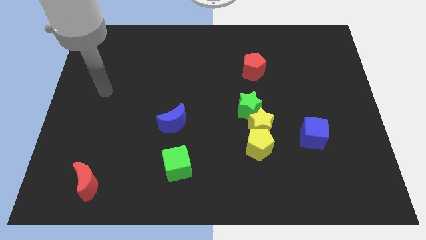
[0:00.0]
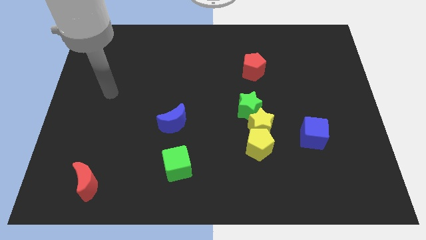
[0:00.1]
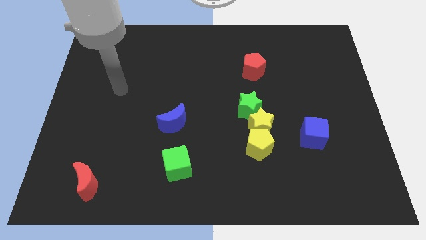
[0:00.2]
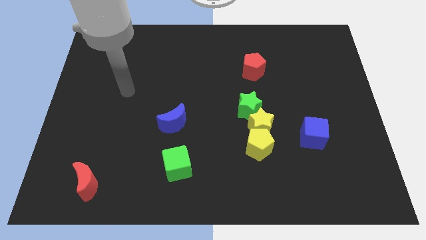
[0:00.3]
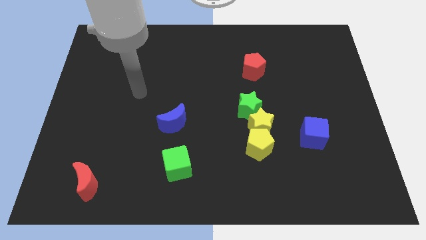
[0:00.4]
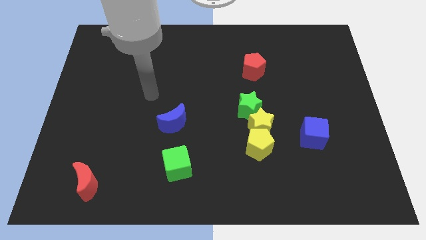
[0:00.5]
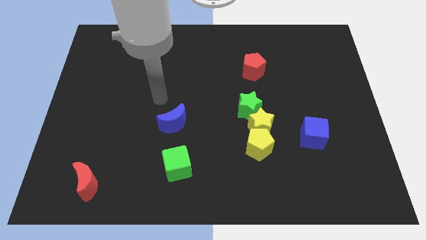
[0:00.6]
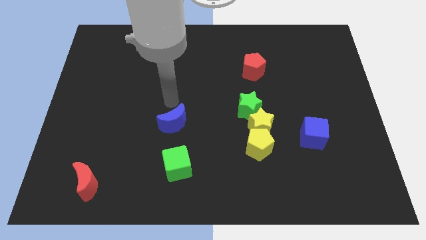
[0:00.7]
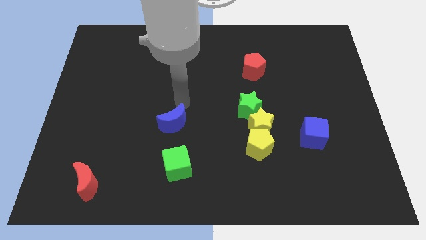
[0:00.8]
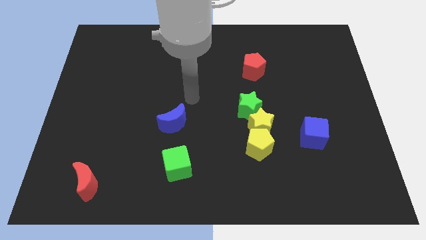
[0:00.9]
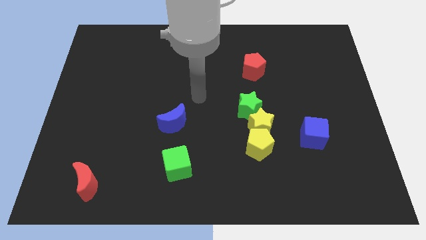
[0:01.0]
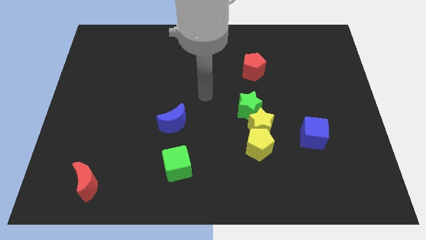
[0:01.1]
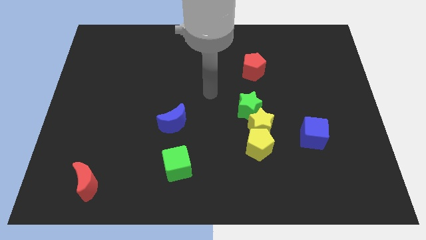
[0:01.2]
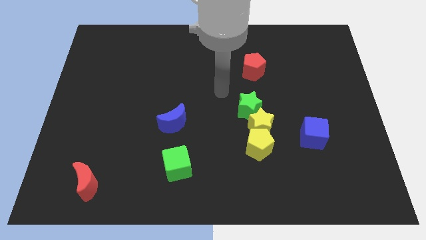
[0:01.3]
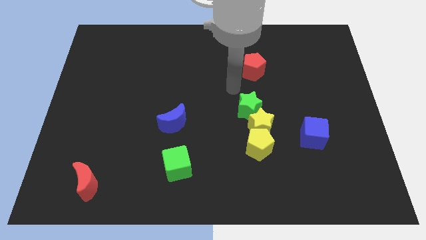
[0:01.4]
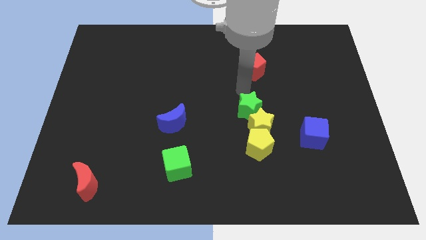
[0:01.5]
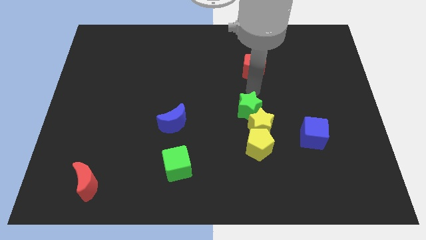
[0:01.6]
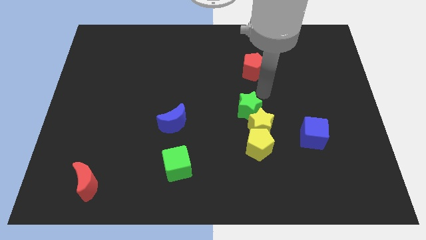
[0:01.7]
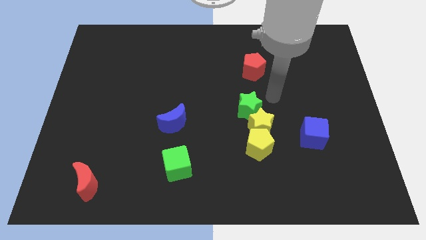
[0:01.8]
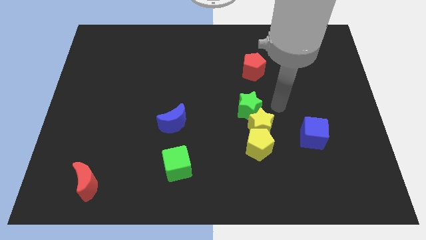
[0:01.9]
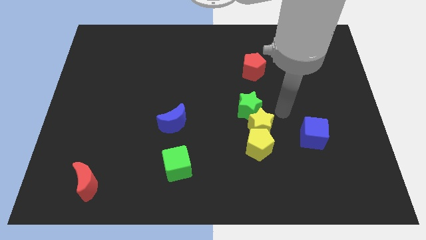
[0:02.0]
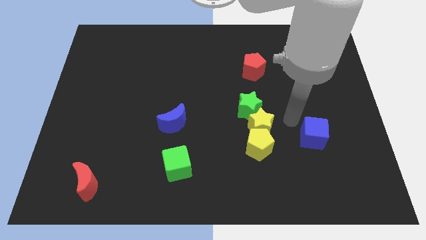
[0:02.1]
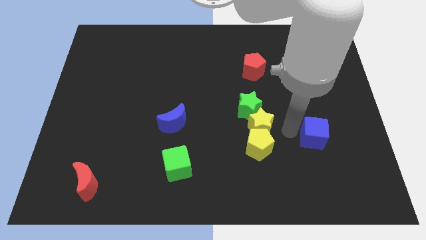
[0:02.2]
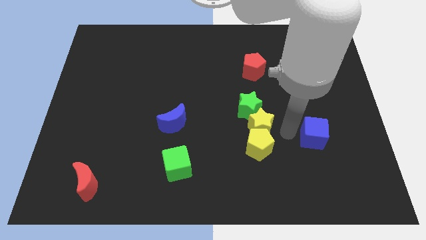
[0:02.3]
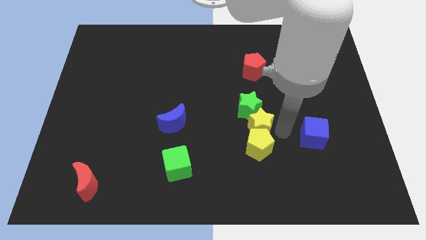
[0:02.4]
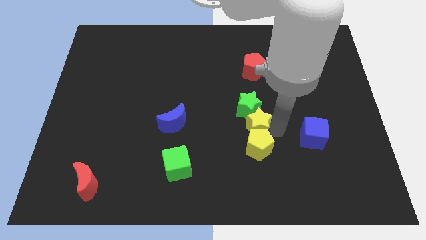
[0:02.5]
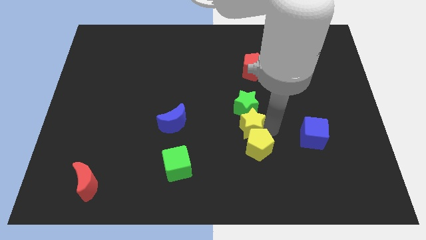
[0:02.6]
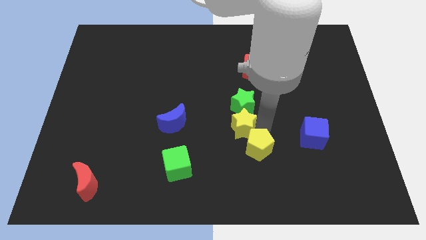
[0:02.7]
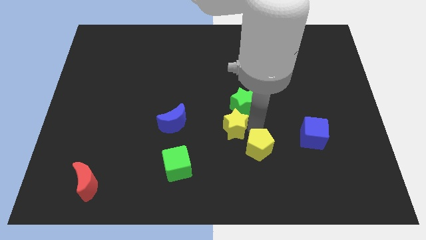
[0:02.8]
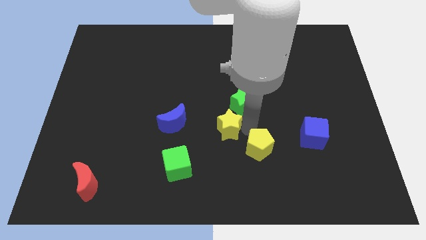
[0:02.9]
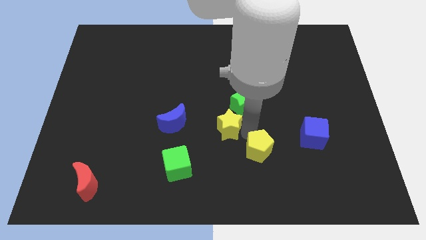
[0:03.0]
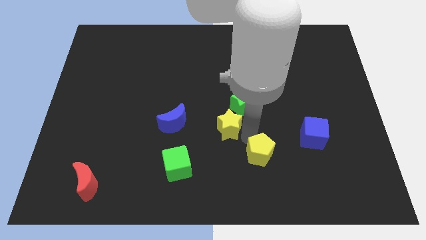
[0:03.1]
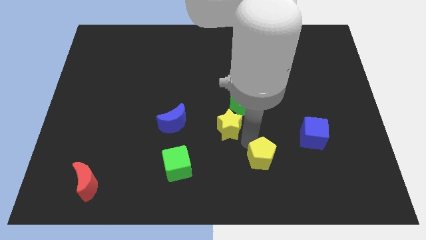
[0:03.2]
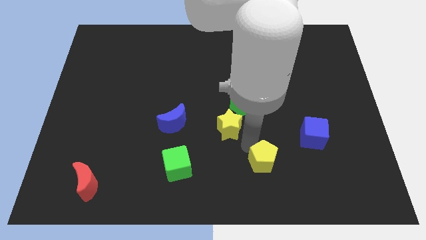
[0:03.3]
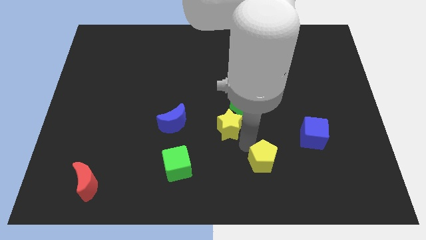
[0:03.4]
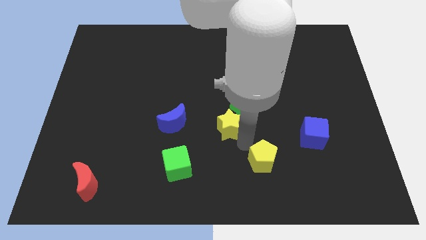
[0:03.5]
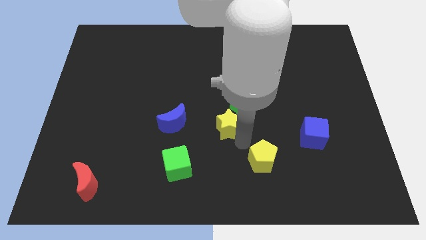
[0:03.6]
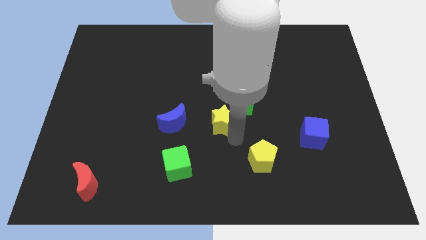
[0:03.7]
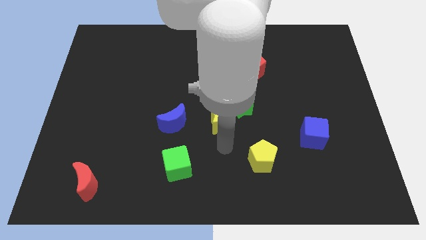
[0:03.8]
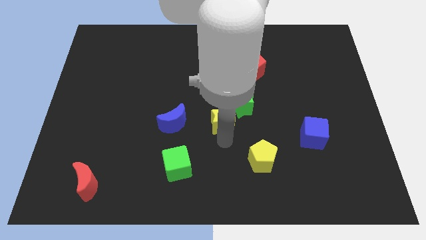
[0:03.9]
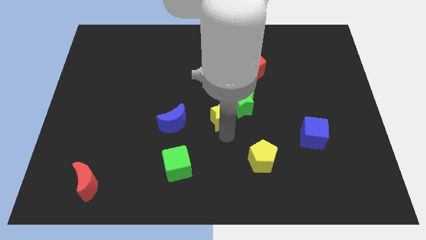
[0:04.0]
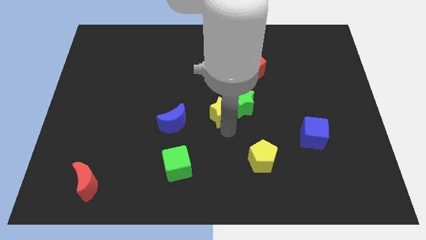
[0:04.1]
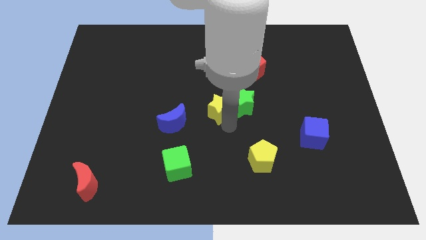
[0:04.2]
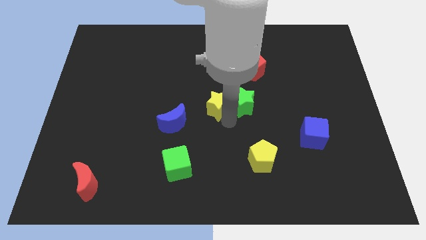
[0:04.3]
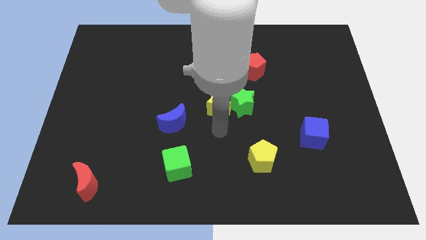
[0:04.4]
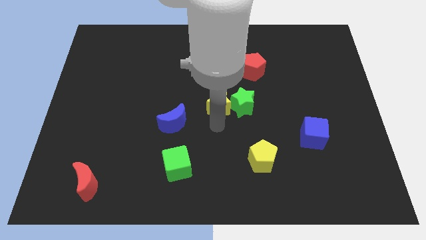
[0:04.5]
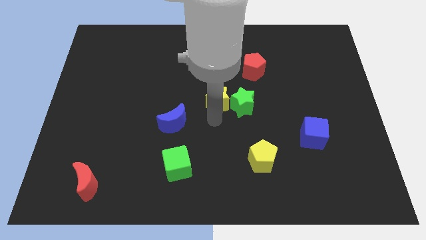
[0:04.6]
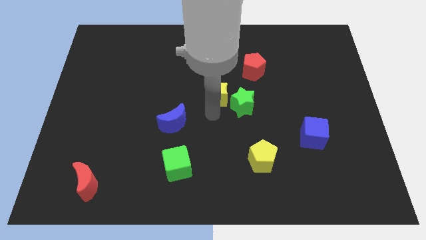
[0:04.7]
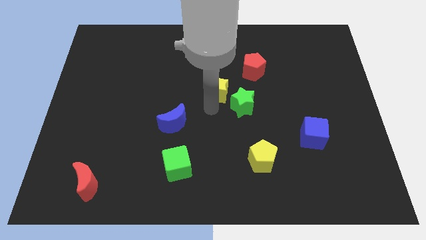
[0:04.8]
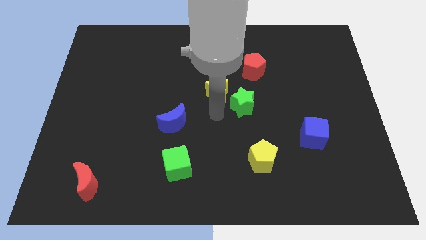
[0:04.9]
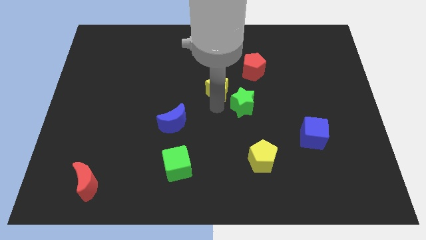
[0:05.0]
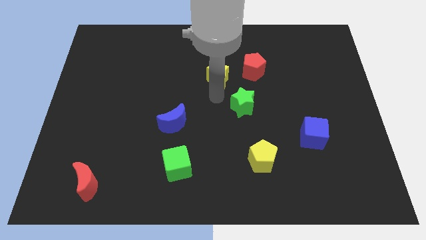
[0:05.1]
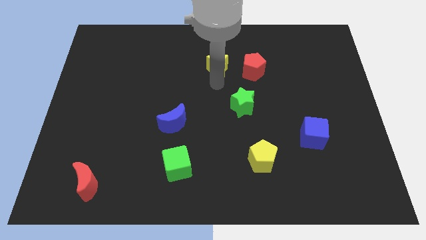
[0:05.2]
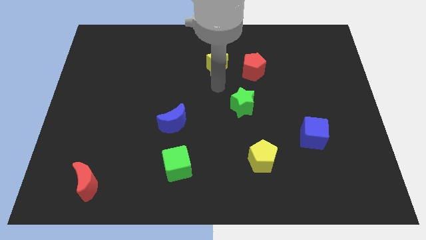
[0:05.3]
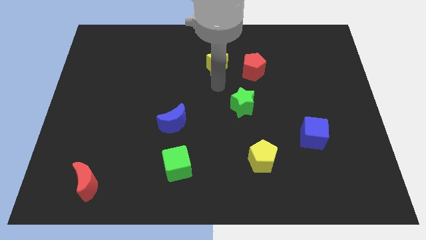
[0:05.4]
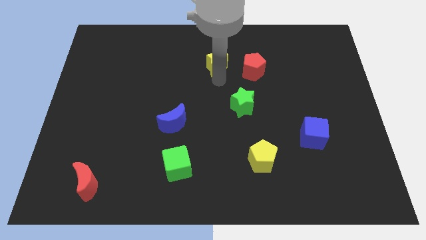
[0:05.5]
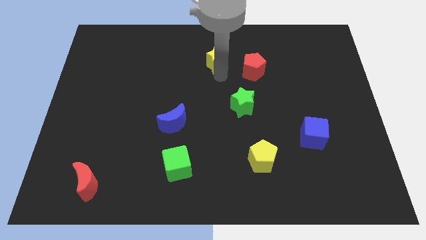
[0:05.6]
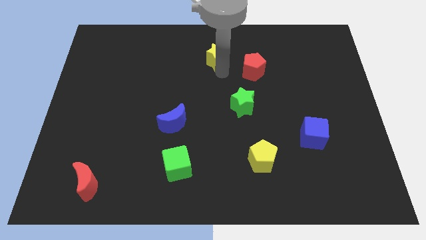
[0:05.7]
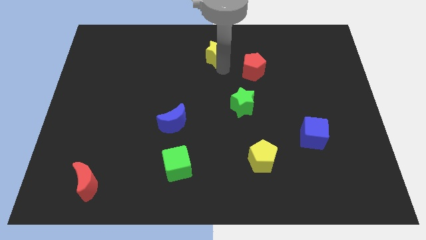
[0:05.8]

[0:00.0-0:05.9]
move the yellow star to the top side

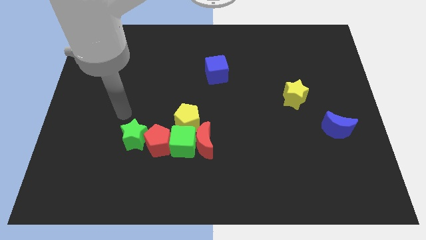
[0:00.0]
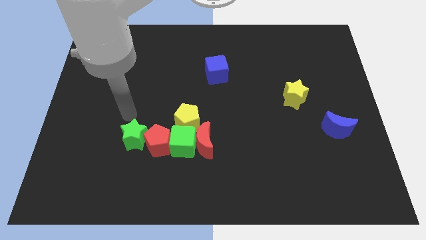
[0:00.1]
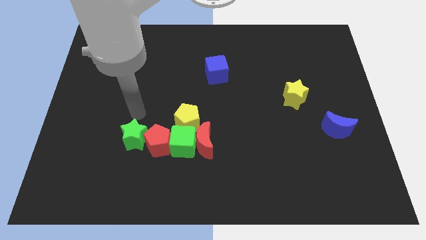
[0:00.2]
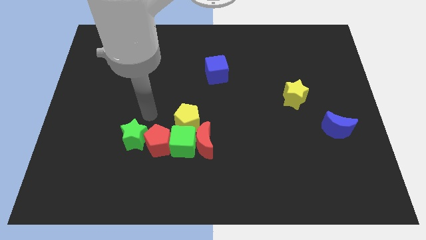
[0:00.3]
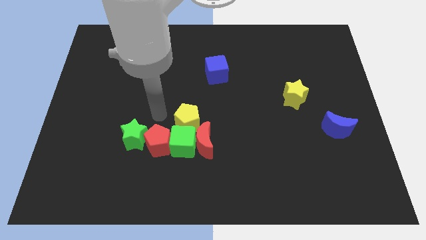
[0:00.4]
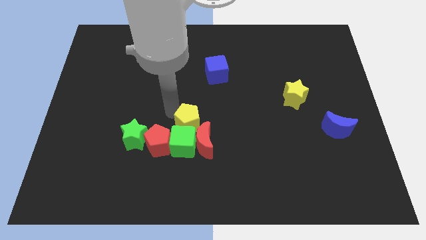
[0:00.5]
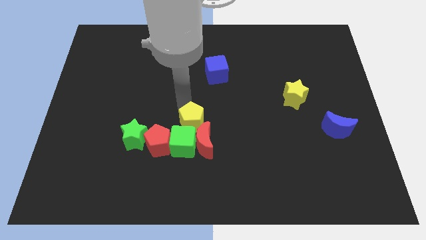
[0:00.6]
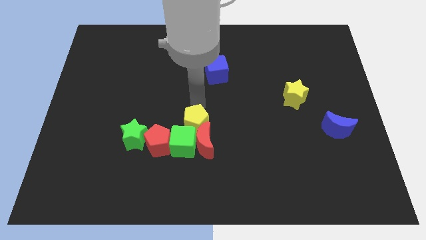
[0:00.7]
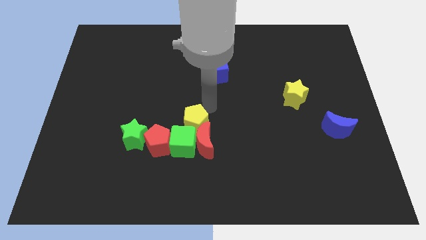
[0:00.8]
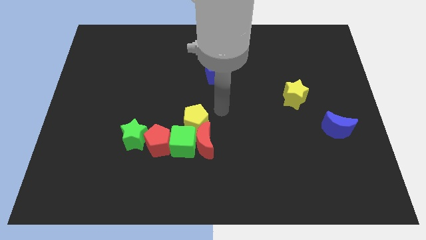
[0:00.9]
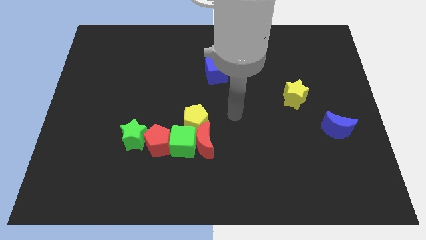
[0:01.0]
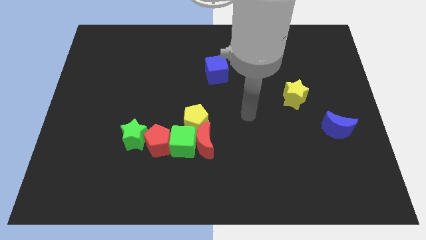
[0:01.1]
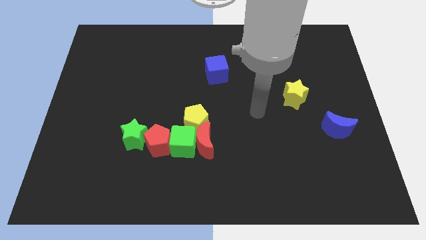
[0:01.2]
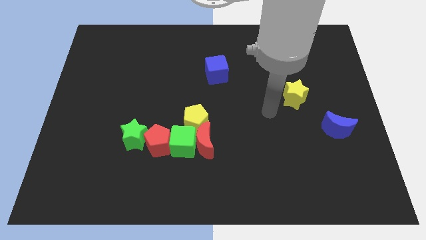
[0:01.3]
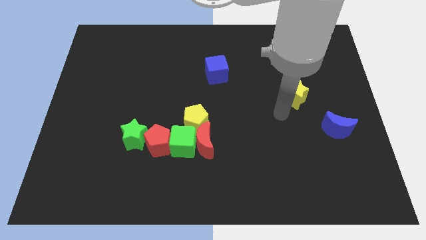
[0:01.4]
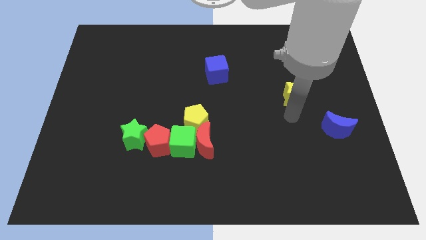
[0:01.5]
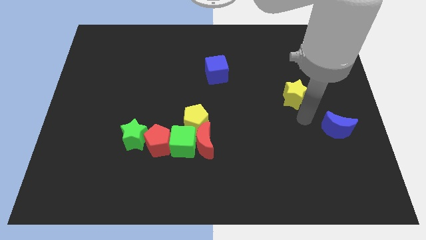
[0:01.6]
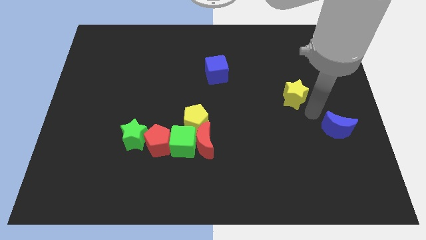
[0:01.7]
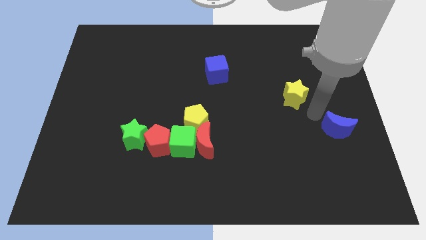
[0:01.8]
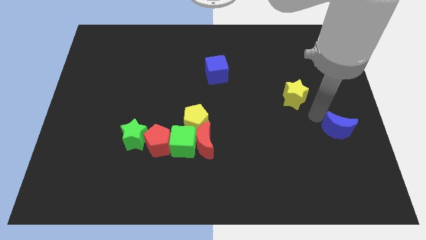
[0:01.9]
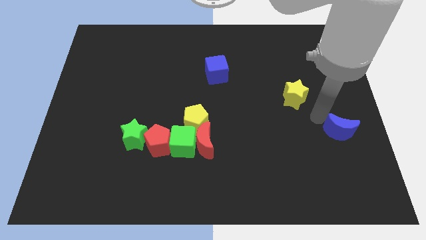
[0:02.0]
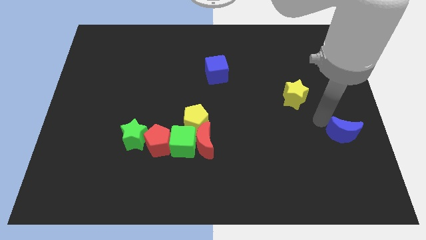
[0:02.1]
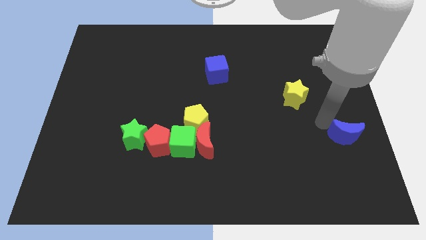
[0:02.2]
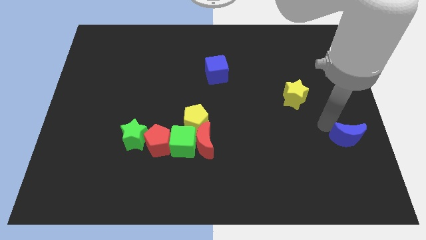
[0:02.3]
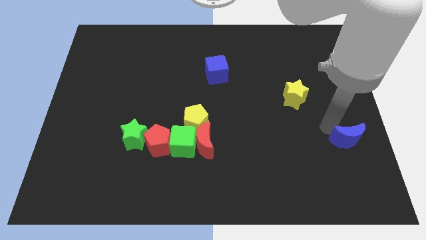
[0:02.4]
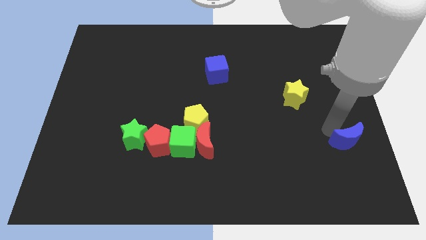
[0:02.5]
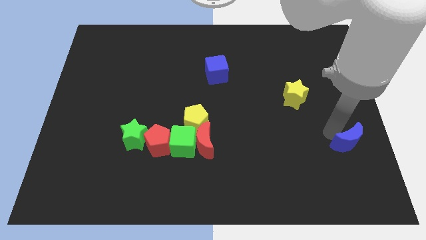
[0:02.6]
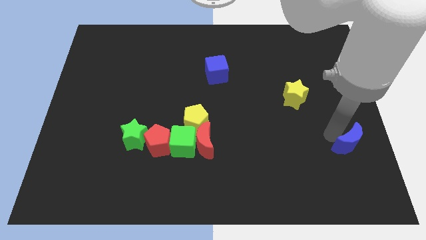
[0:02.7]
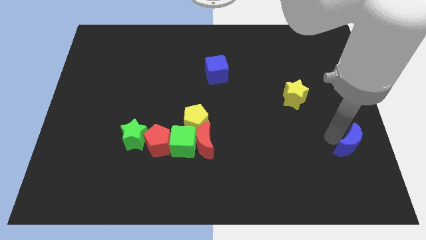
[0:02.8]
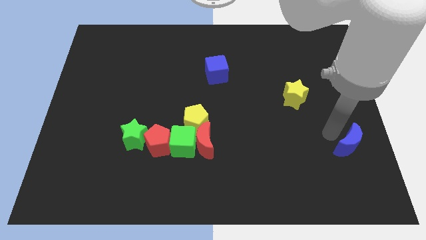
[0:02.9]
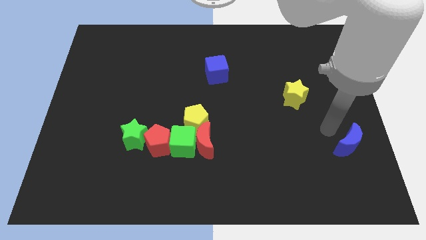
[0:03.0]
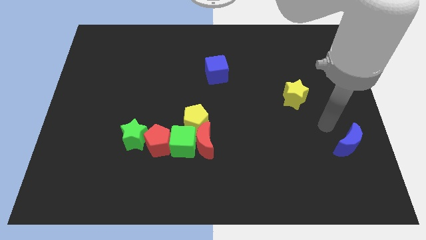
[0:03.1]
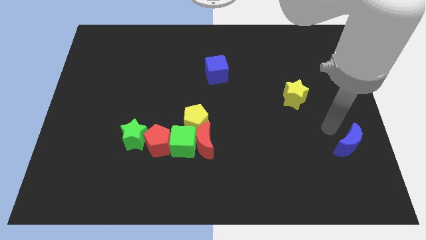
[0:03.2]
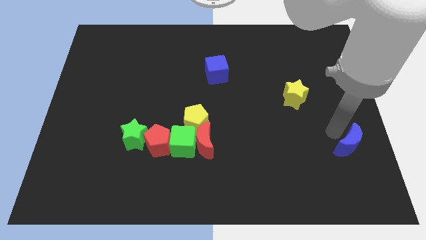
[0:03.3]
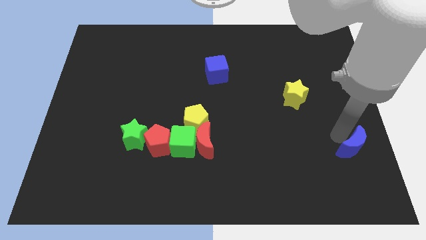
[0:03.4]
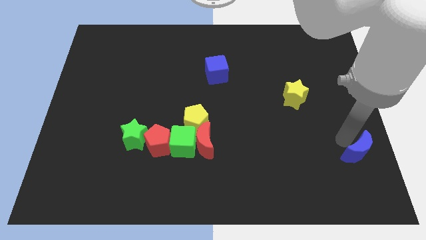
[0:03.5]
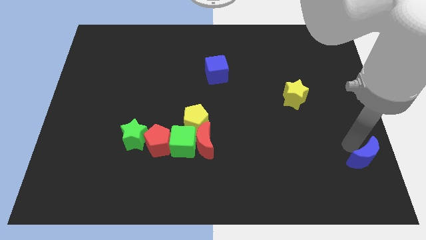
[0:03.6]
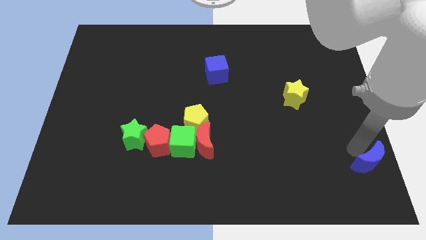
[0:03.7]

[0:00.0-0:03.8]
push the blue moon to the lower right corner
